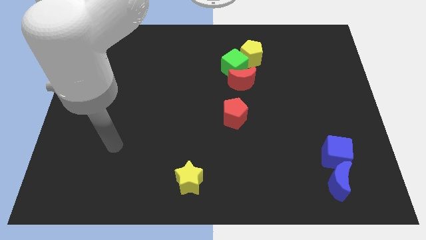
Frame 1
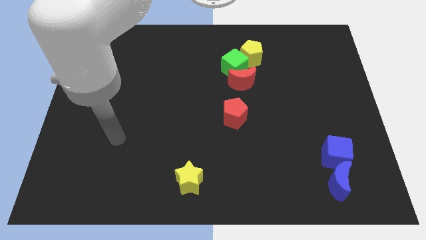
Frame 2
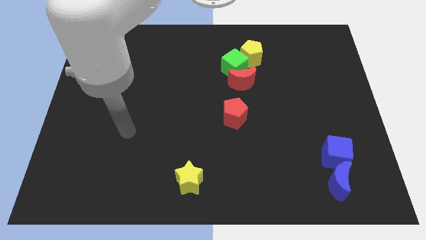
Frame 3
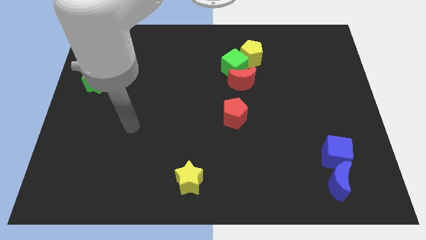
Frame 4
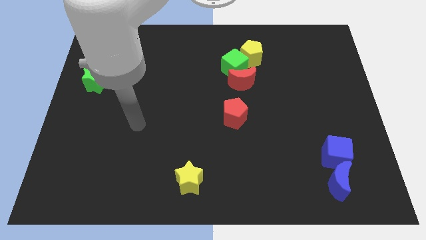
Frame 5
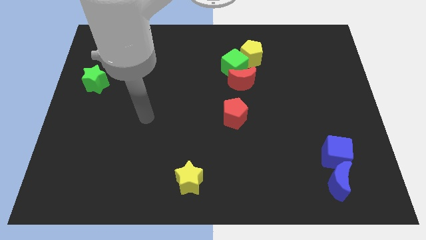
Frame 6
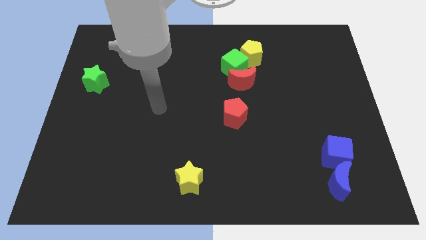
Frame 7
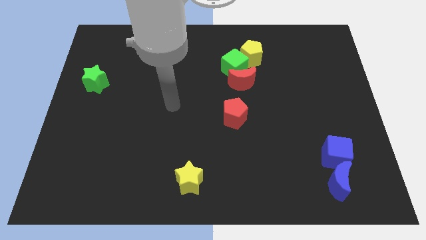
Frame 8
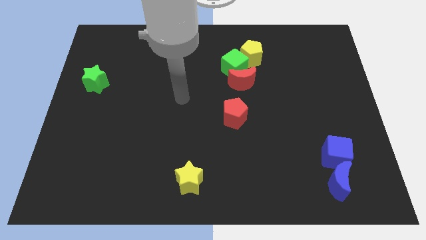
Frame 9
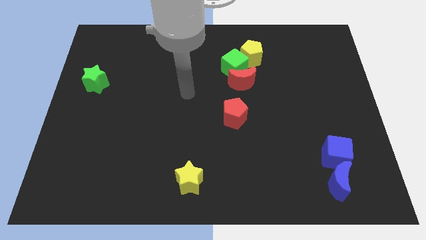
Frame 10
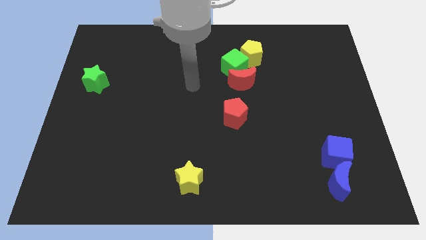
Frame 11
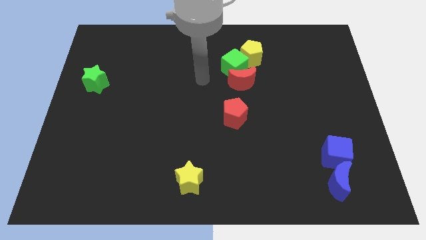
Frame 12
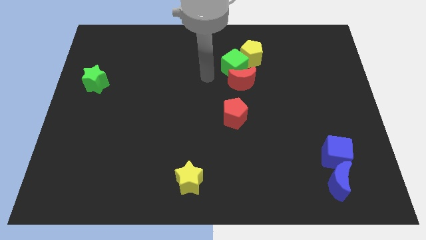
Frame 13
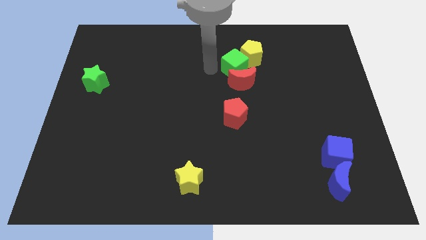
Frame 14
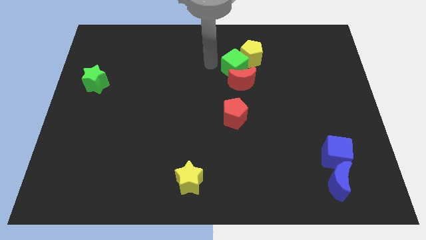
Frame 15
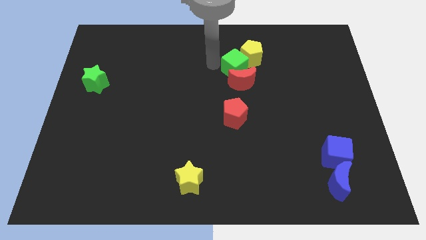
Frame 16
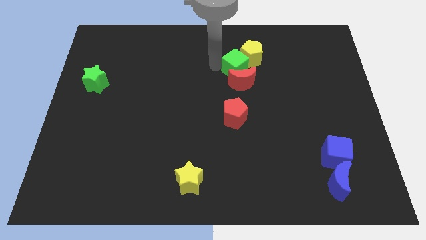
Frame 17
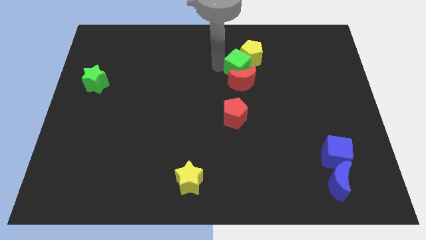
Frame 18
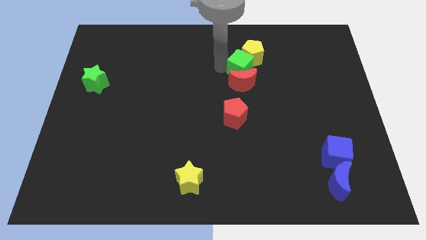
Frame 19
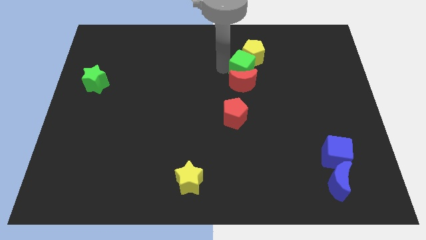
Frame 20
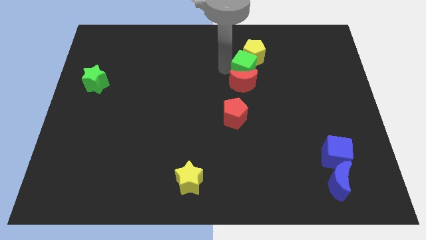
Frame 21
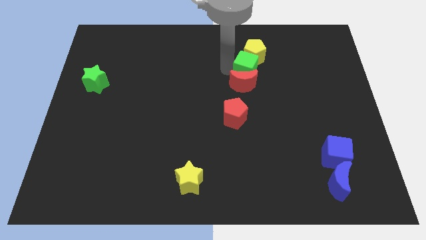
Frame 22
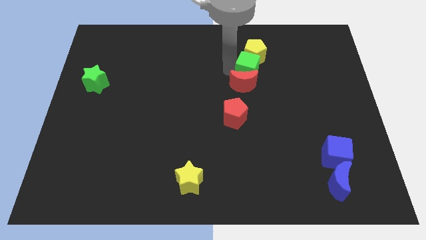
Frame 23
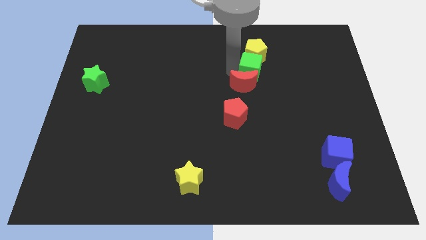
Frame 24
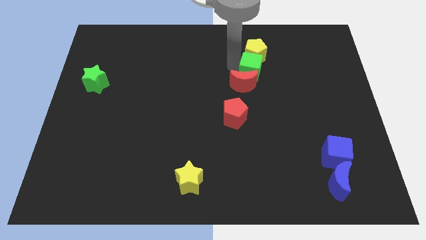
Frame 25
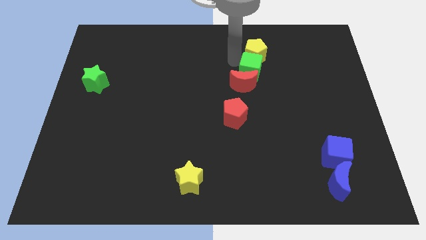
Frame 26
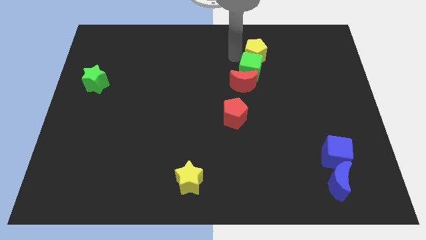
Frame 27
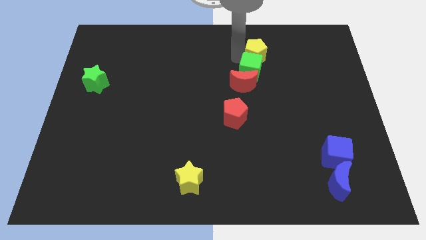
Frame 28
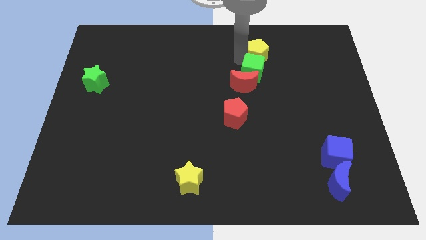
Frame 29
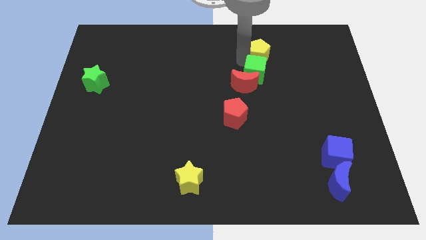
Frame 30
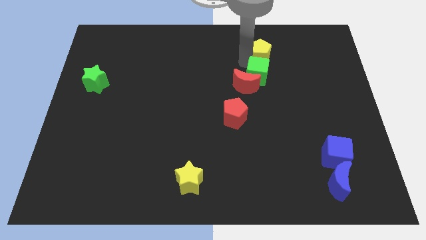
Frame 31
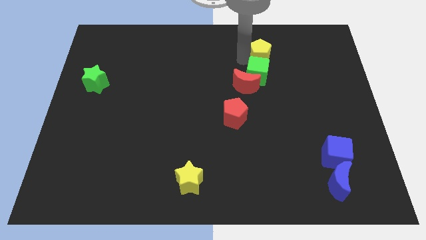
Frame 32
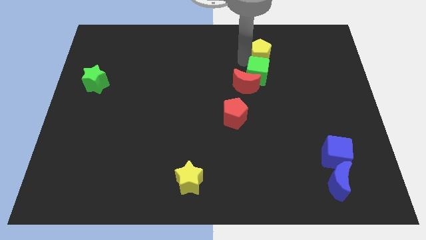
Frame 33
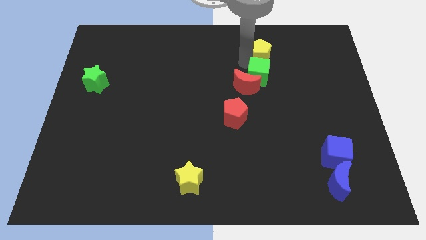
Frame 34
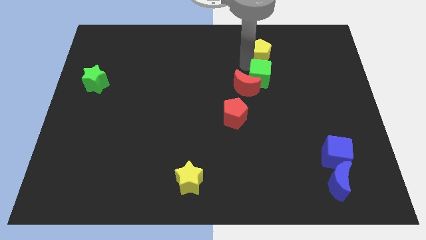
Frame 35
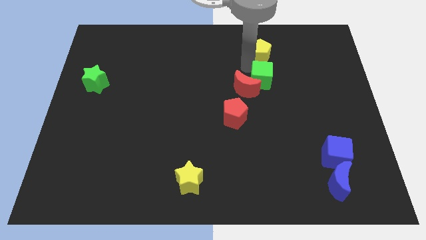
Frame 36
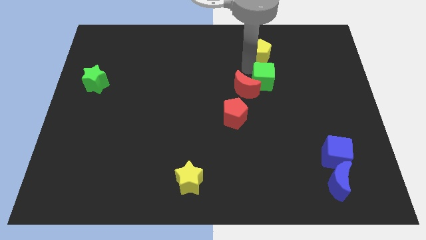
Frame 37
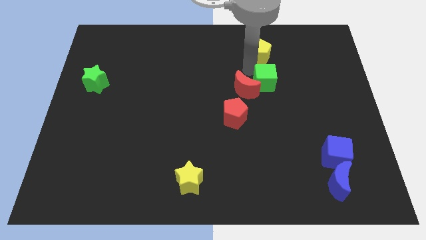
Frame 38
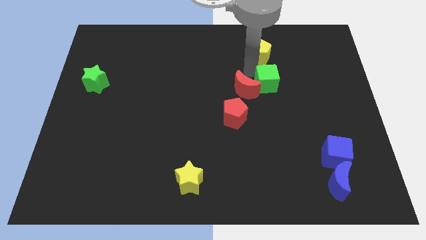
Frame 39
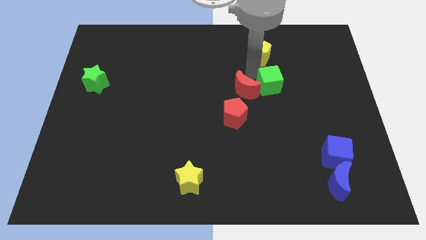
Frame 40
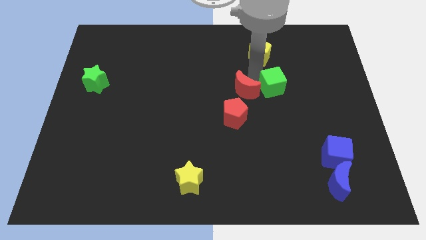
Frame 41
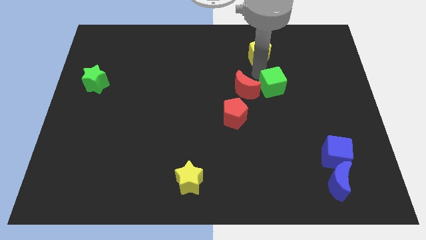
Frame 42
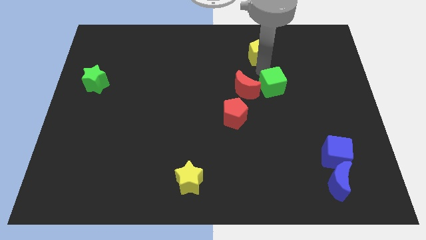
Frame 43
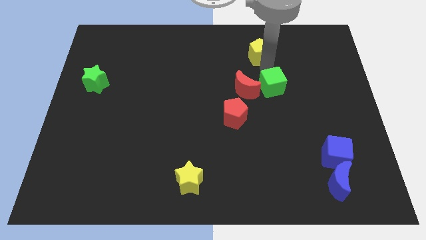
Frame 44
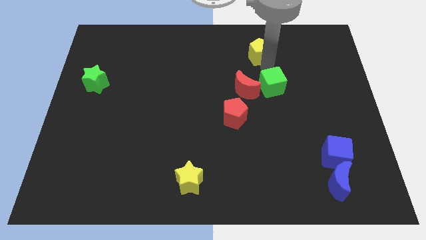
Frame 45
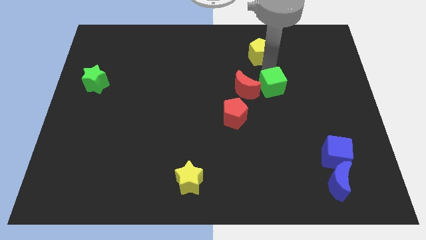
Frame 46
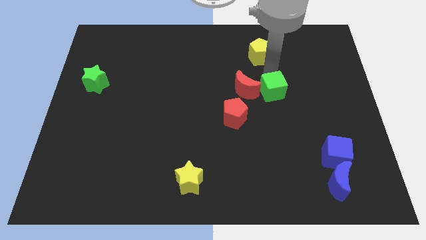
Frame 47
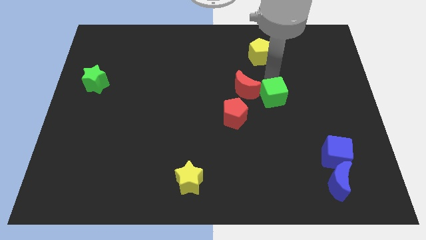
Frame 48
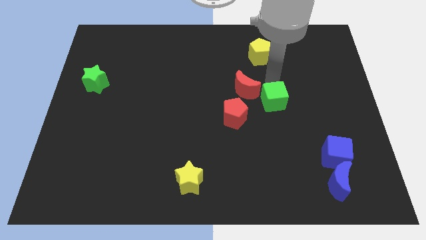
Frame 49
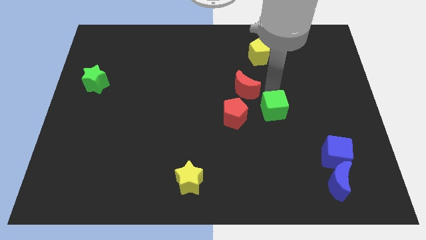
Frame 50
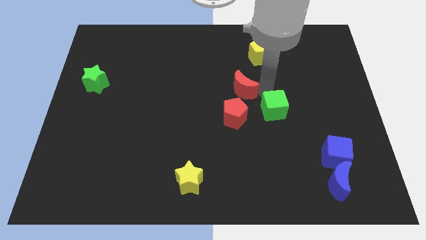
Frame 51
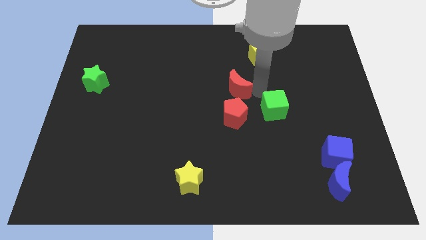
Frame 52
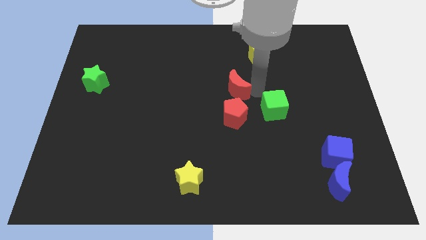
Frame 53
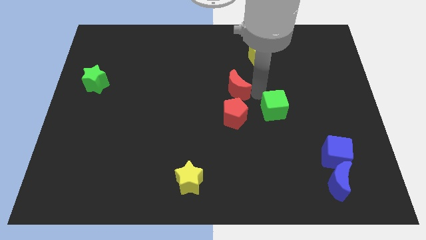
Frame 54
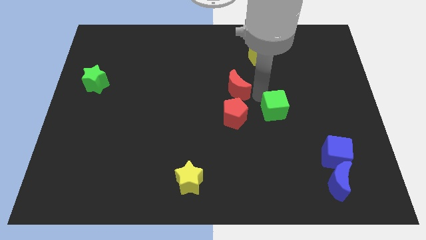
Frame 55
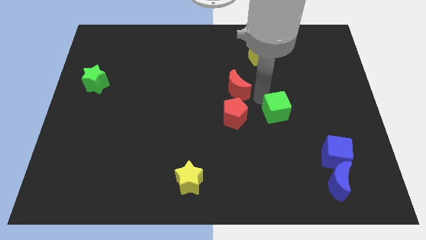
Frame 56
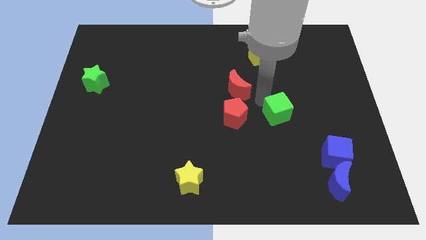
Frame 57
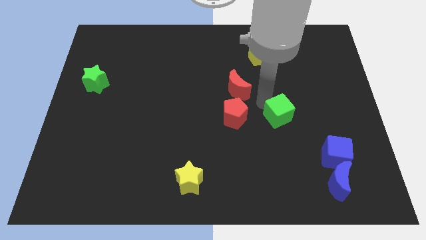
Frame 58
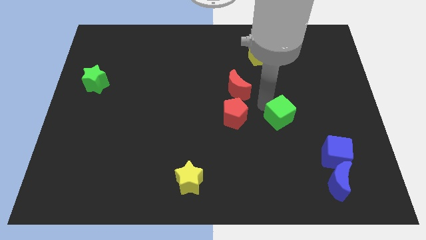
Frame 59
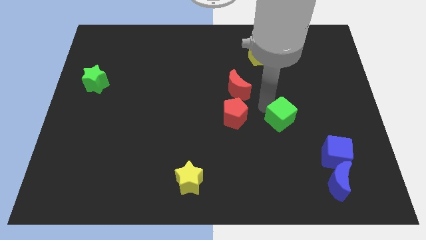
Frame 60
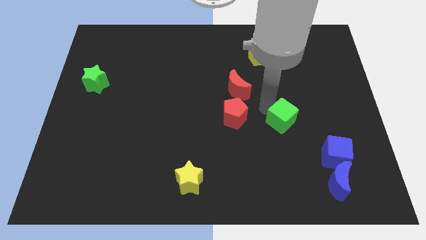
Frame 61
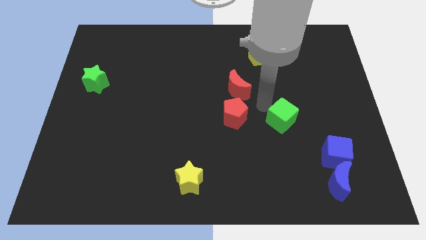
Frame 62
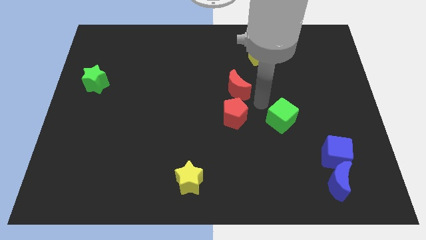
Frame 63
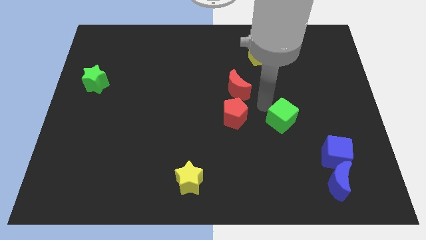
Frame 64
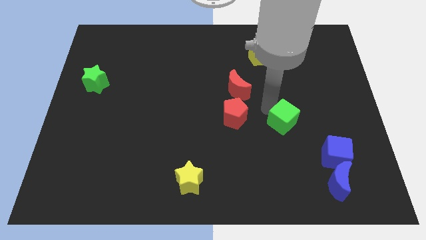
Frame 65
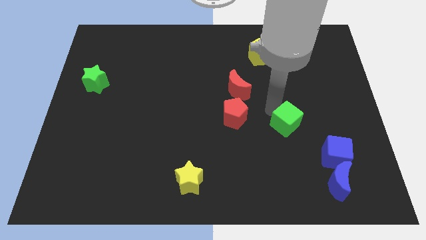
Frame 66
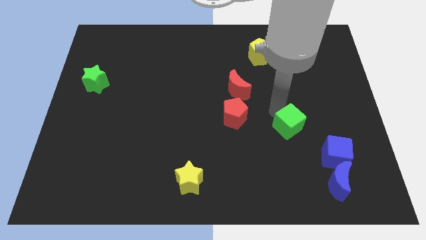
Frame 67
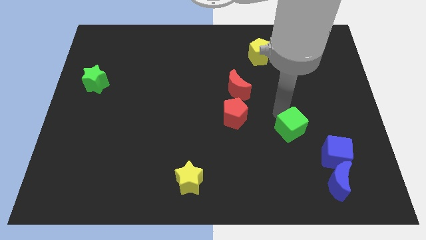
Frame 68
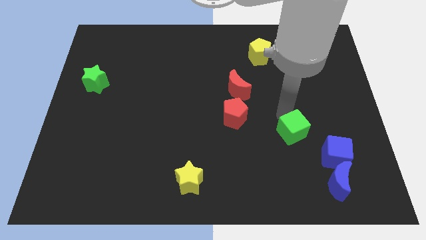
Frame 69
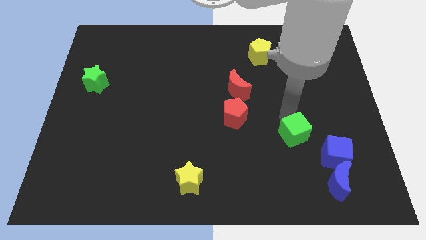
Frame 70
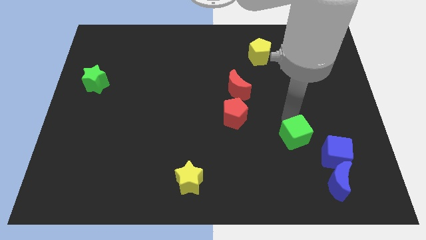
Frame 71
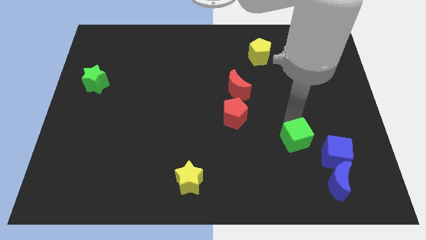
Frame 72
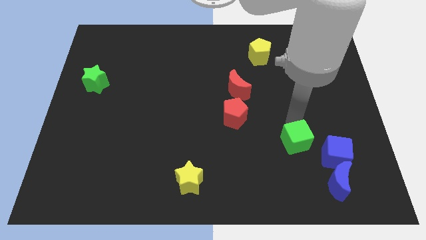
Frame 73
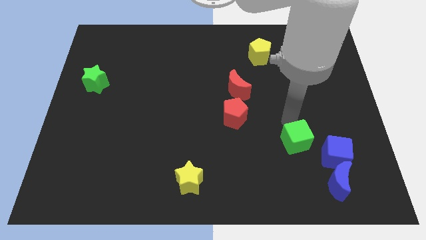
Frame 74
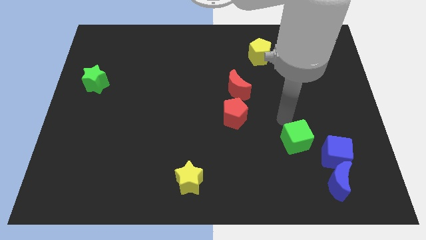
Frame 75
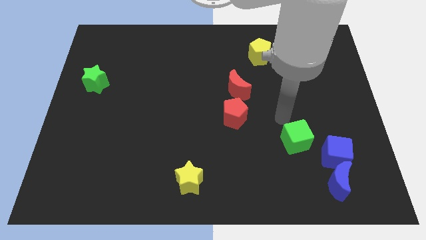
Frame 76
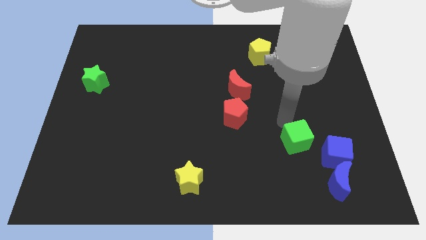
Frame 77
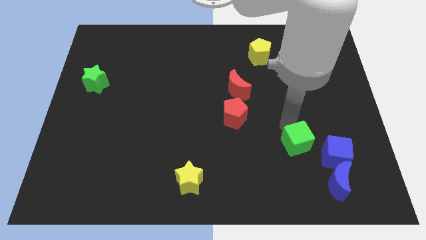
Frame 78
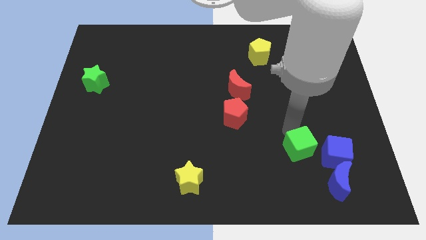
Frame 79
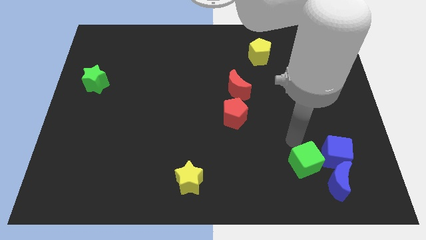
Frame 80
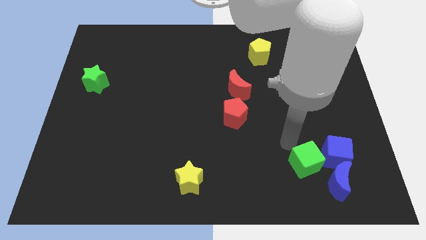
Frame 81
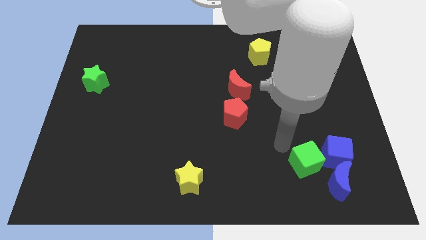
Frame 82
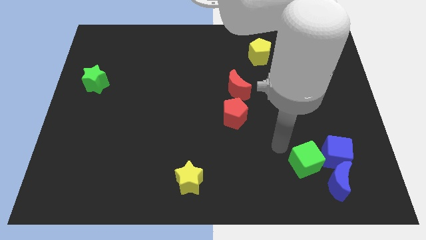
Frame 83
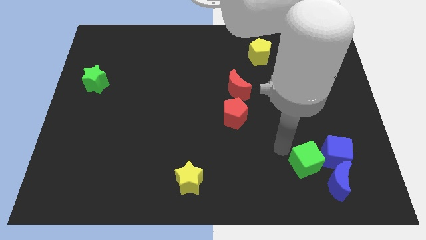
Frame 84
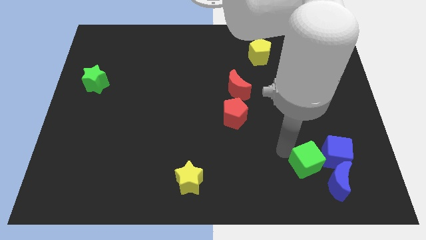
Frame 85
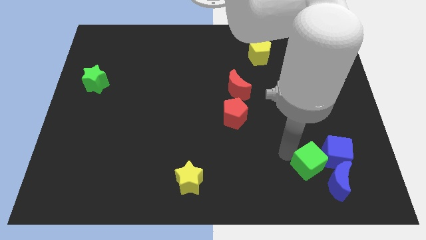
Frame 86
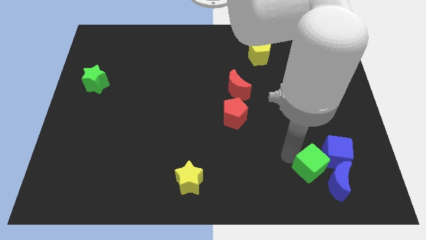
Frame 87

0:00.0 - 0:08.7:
put the green cube towards the blue moon
